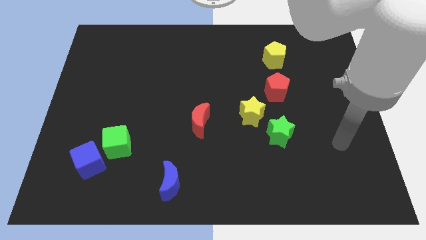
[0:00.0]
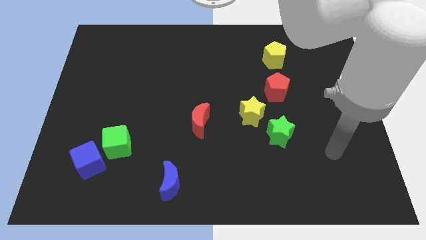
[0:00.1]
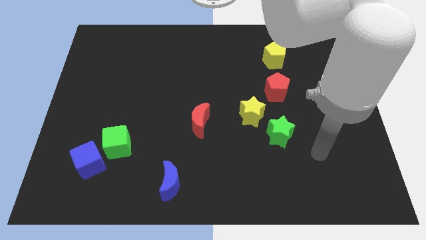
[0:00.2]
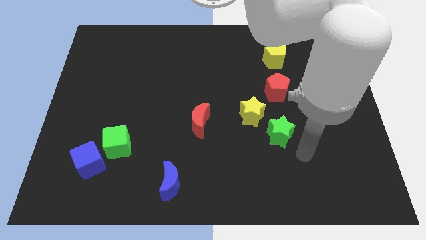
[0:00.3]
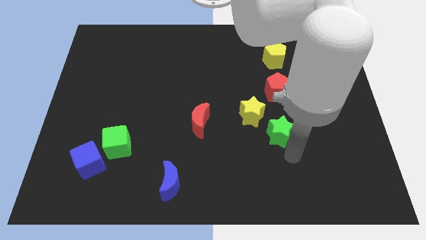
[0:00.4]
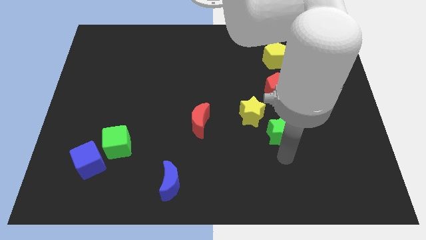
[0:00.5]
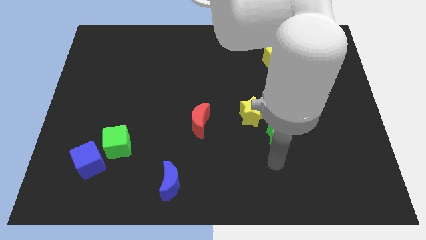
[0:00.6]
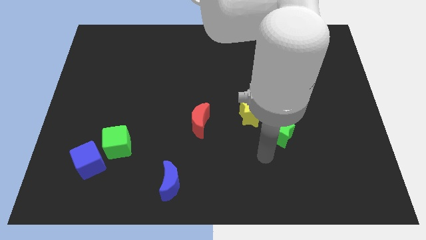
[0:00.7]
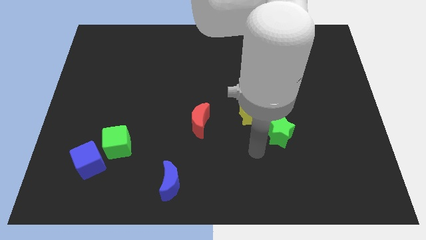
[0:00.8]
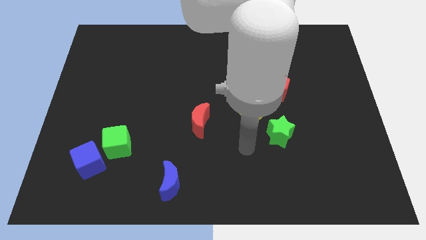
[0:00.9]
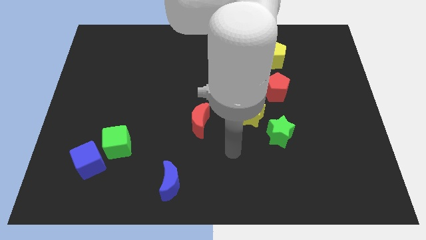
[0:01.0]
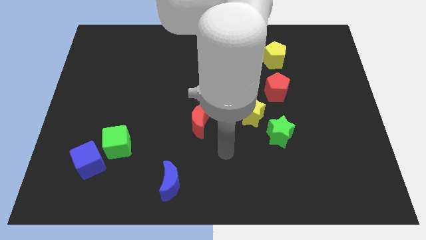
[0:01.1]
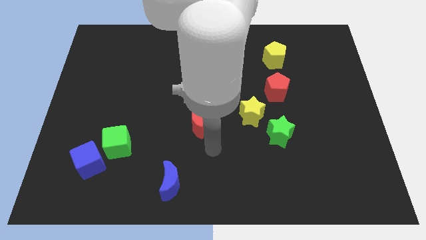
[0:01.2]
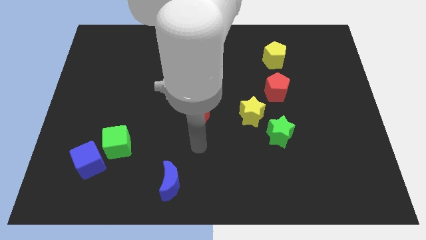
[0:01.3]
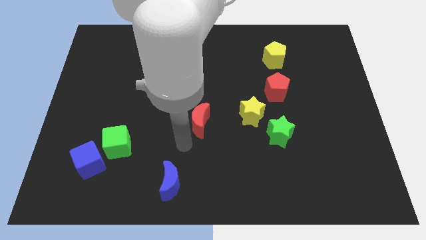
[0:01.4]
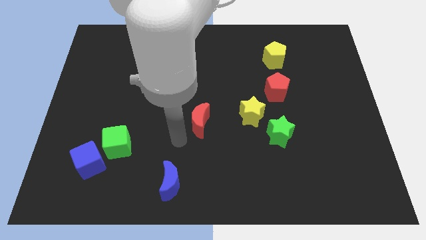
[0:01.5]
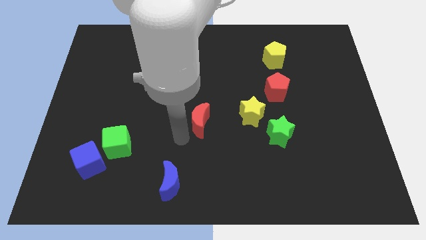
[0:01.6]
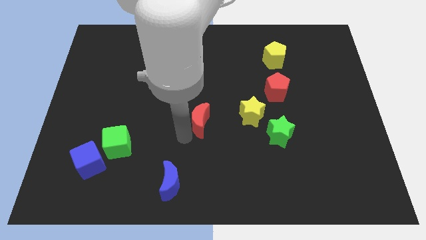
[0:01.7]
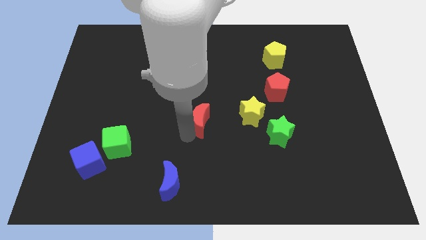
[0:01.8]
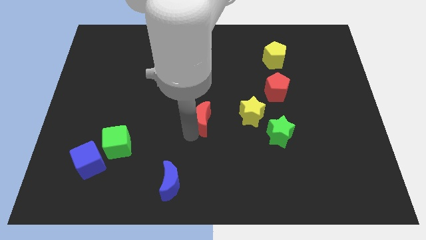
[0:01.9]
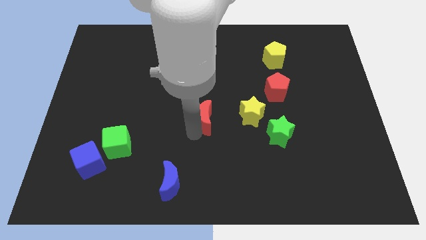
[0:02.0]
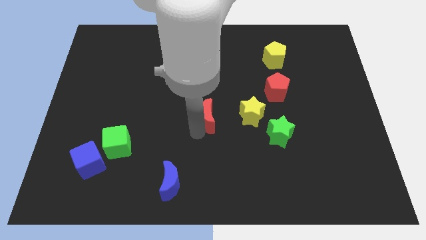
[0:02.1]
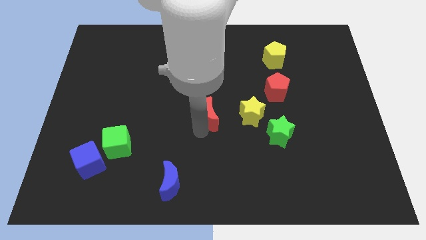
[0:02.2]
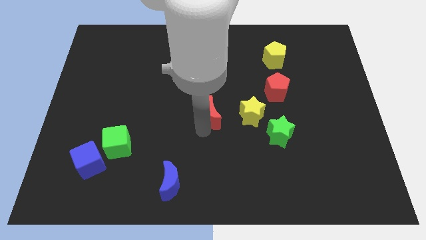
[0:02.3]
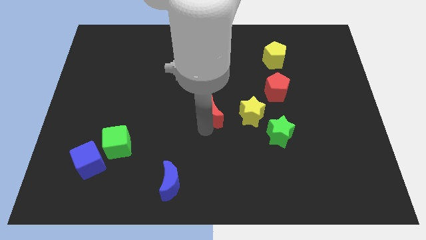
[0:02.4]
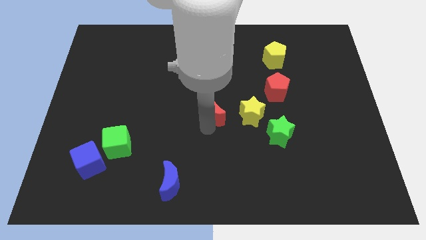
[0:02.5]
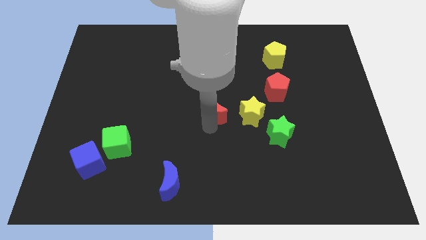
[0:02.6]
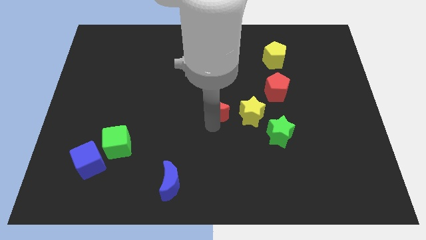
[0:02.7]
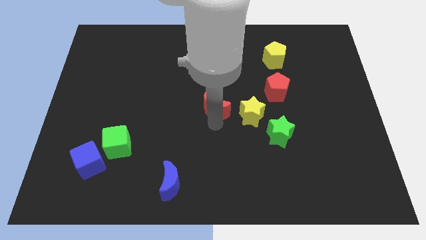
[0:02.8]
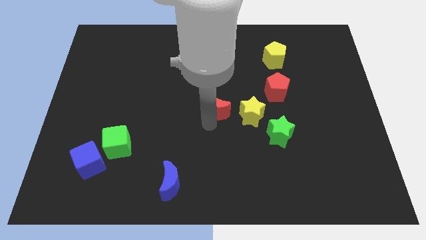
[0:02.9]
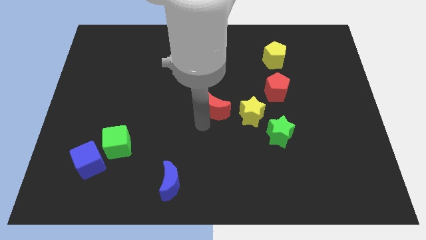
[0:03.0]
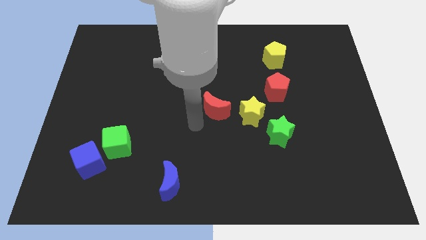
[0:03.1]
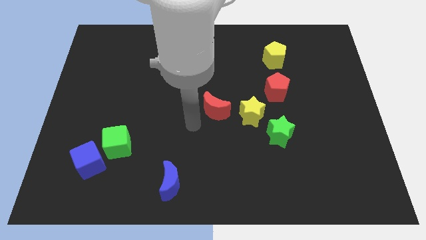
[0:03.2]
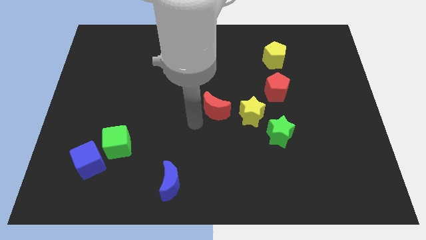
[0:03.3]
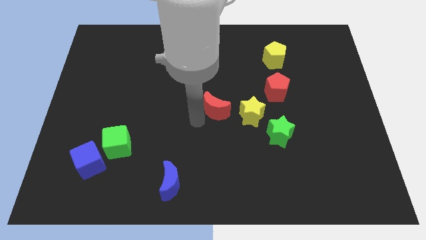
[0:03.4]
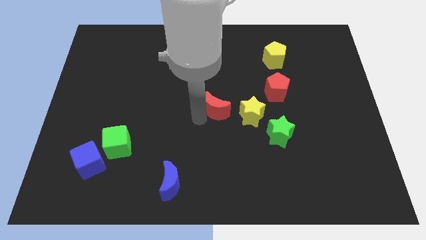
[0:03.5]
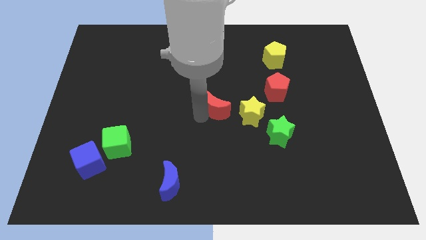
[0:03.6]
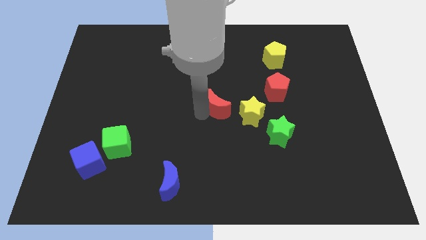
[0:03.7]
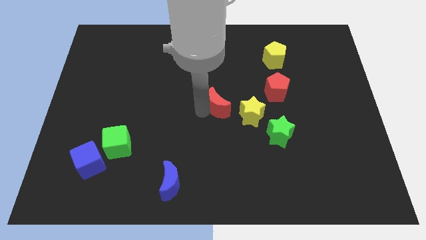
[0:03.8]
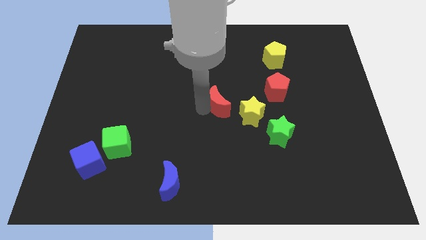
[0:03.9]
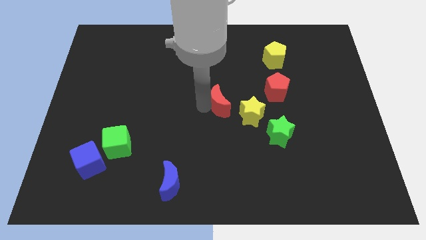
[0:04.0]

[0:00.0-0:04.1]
slightly slide the red moon diagonally up and to the right

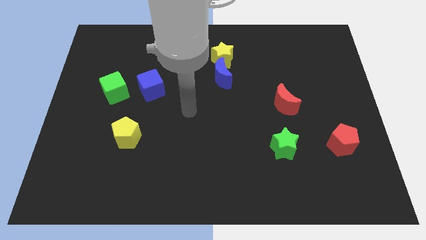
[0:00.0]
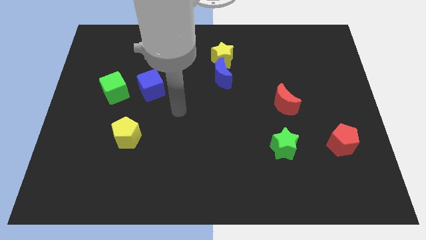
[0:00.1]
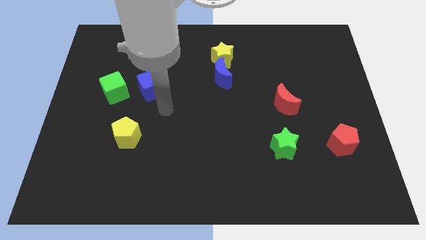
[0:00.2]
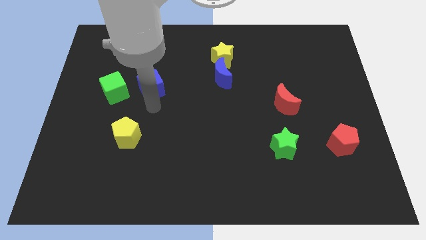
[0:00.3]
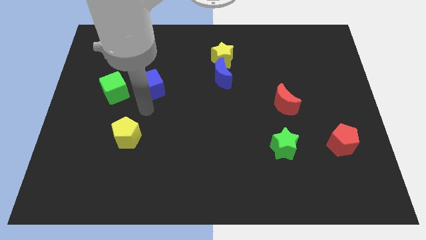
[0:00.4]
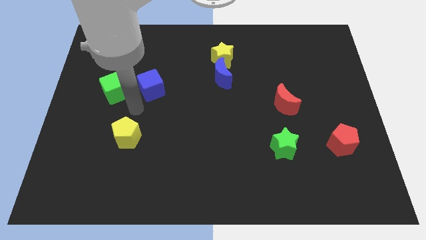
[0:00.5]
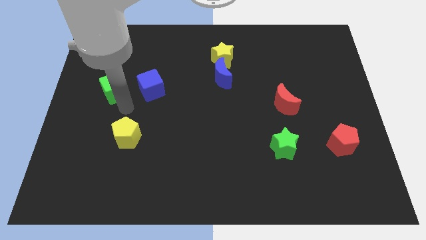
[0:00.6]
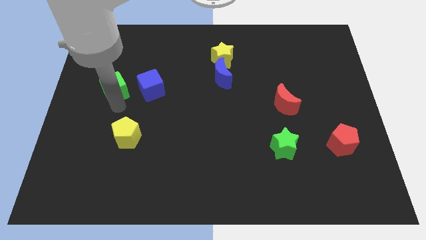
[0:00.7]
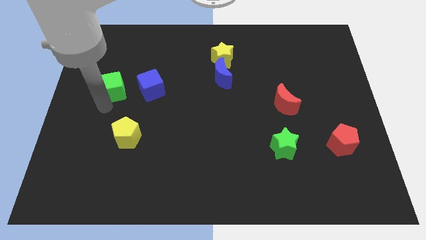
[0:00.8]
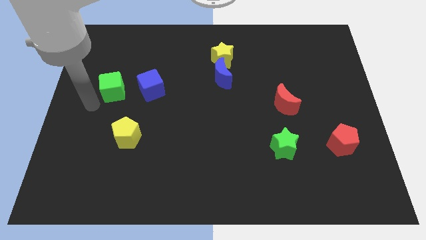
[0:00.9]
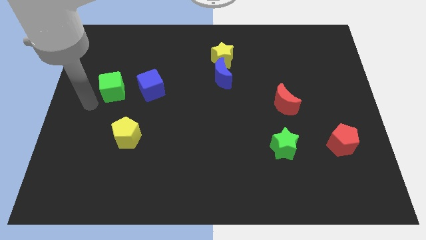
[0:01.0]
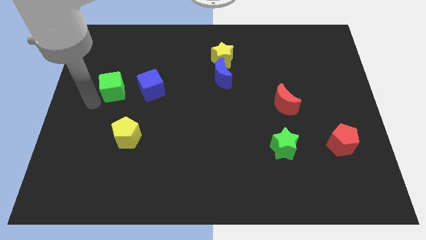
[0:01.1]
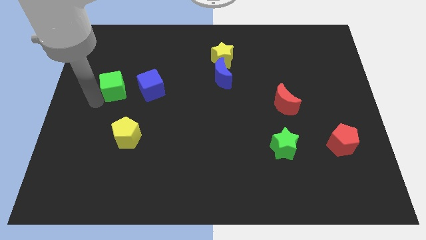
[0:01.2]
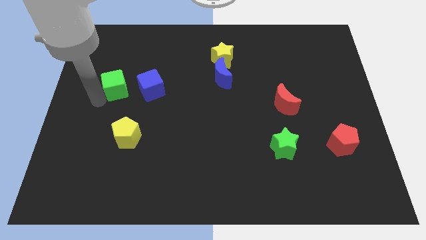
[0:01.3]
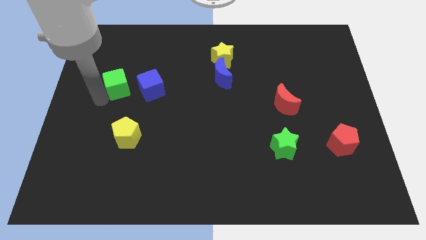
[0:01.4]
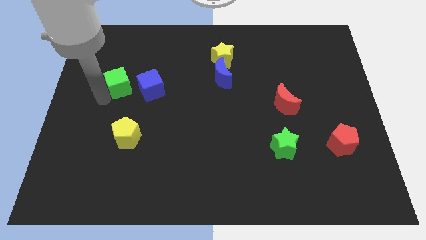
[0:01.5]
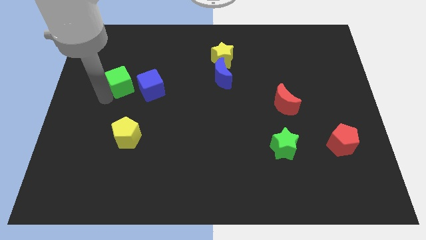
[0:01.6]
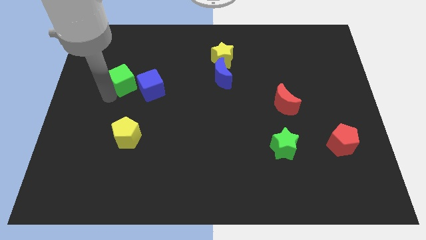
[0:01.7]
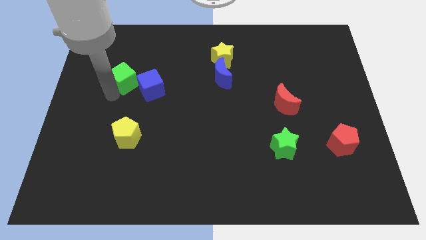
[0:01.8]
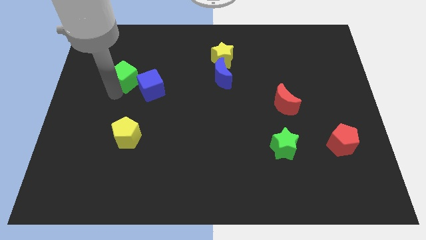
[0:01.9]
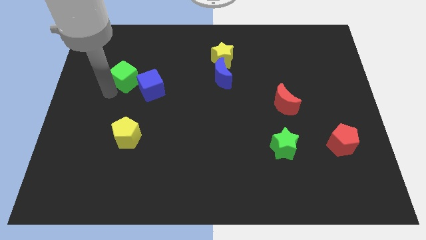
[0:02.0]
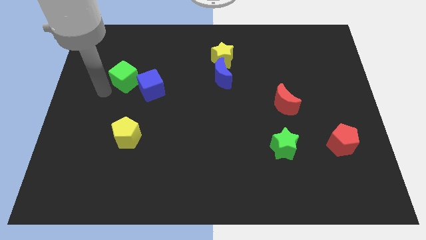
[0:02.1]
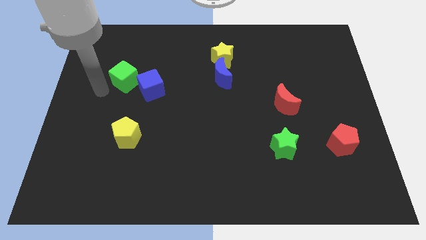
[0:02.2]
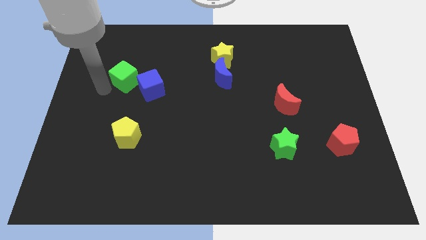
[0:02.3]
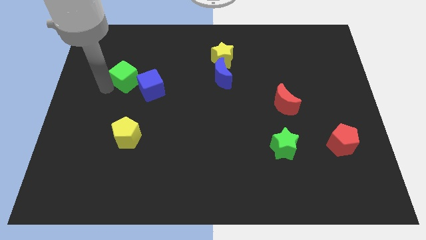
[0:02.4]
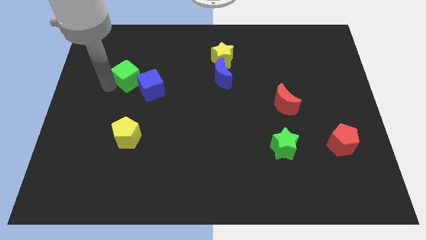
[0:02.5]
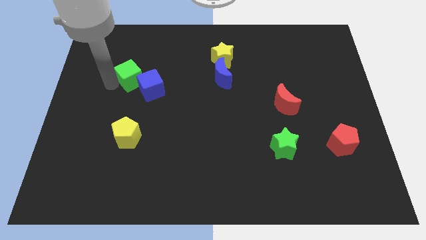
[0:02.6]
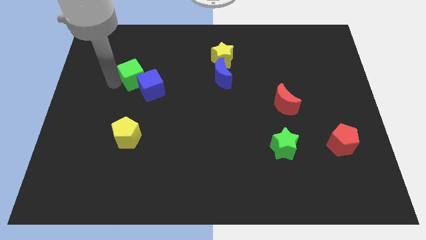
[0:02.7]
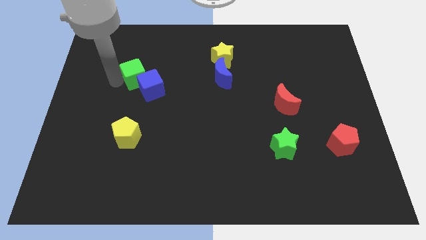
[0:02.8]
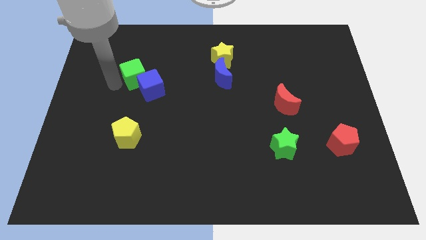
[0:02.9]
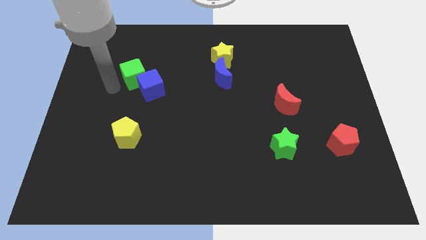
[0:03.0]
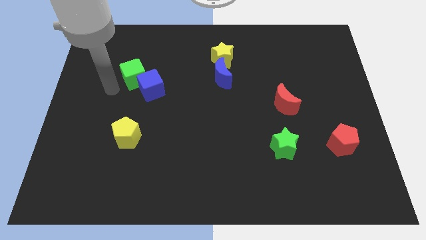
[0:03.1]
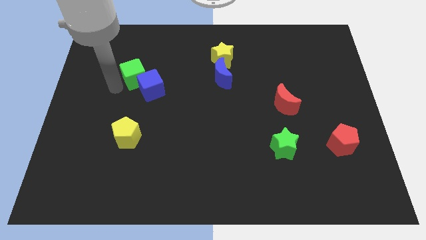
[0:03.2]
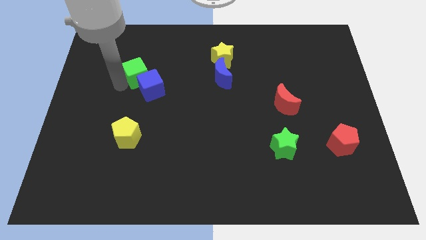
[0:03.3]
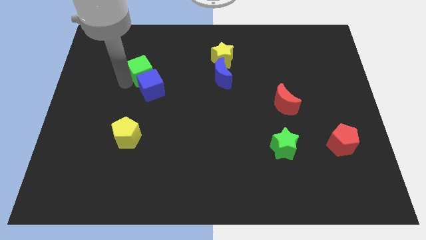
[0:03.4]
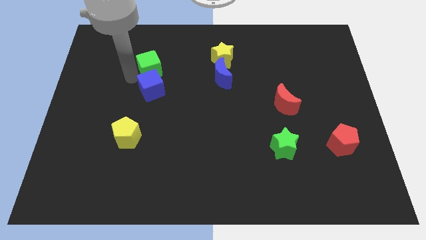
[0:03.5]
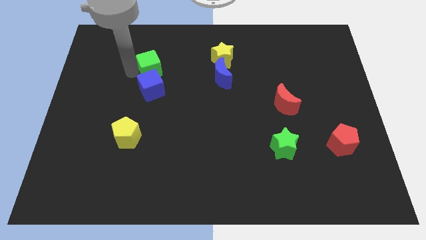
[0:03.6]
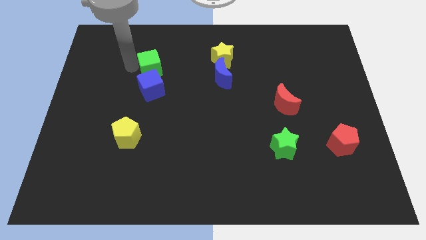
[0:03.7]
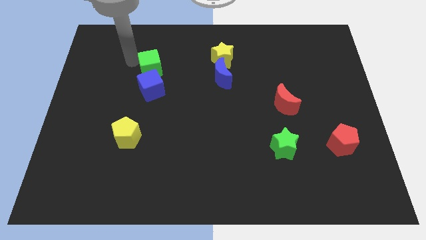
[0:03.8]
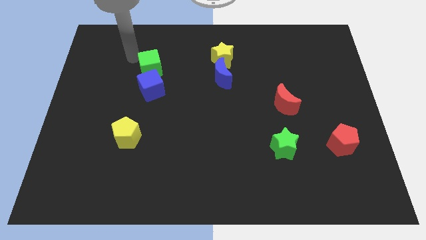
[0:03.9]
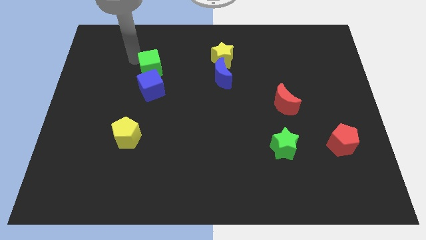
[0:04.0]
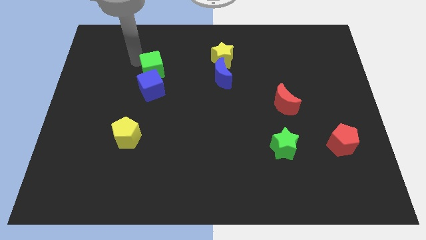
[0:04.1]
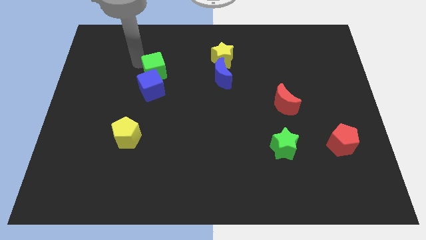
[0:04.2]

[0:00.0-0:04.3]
push the green cube a little bit right

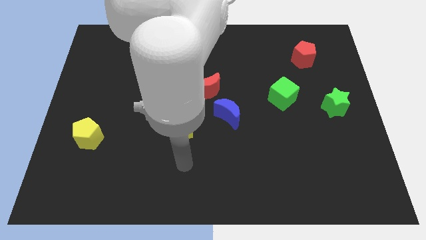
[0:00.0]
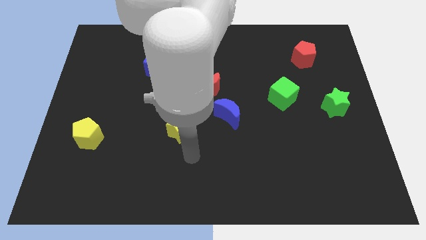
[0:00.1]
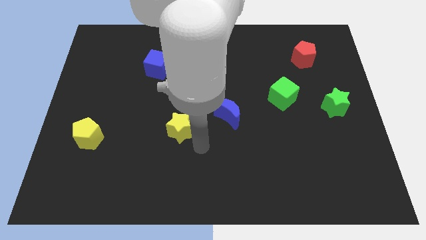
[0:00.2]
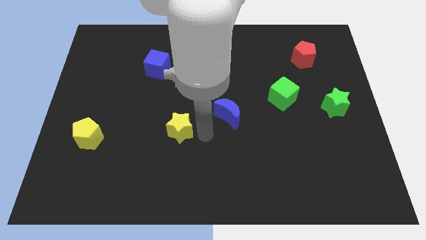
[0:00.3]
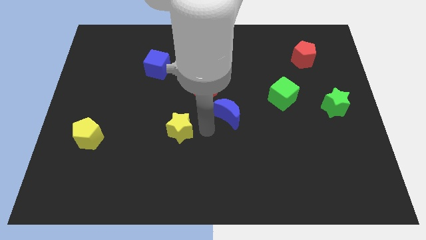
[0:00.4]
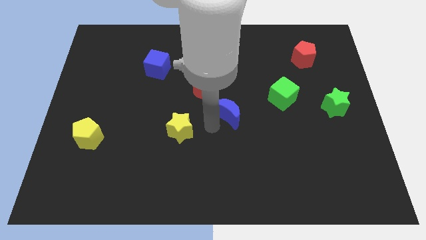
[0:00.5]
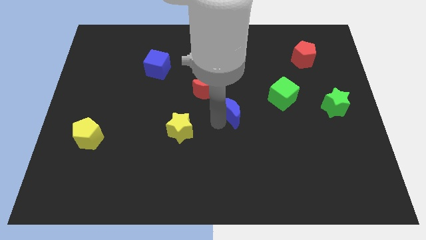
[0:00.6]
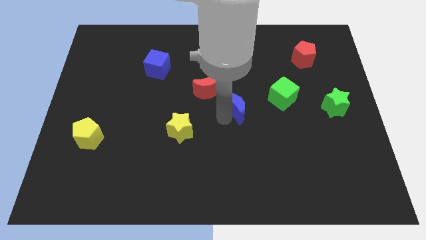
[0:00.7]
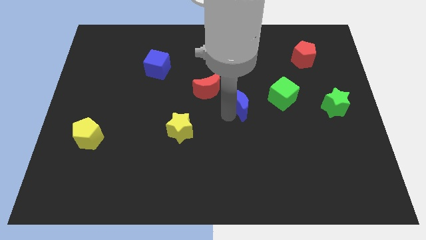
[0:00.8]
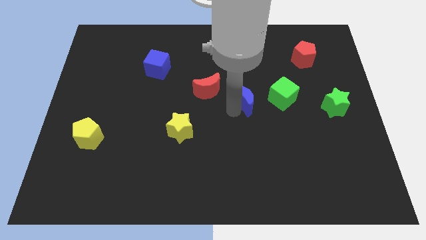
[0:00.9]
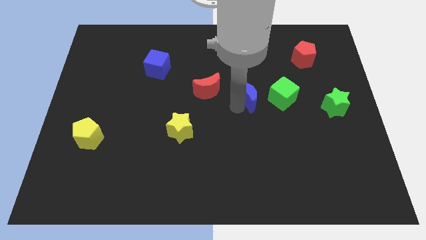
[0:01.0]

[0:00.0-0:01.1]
slightly slide the blue moon diagonally up and right
